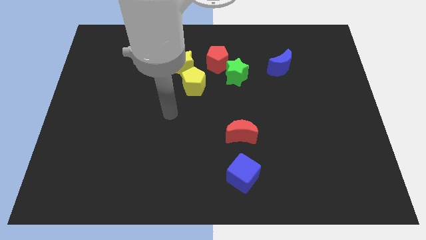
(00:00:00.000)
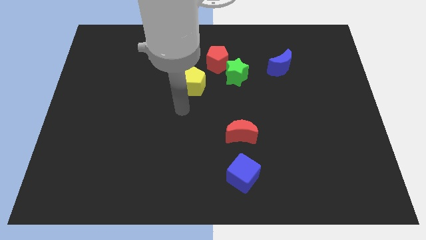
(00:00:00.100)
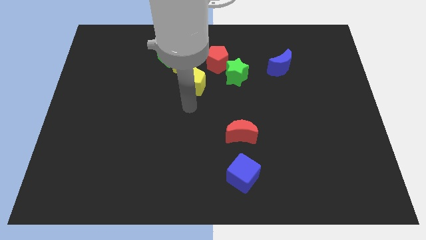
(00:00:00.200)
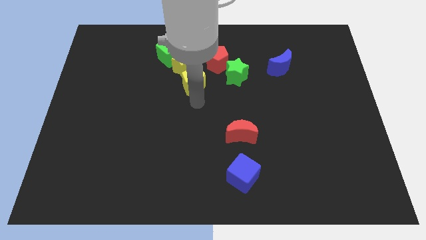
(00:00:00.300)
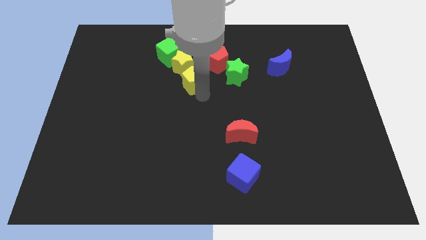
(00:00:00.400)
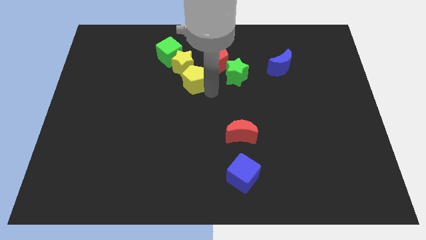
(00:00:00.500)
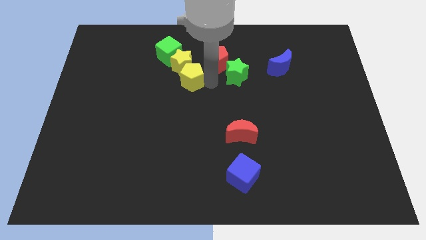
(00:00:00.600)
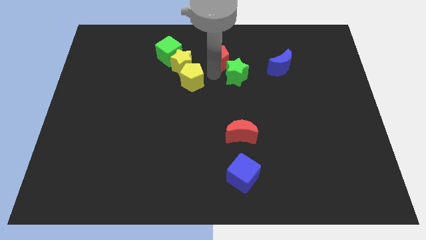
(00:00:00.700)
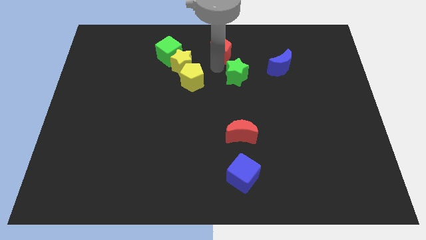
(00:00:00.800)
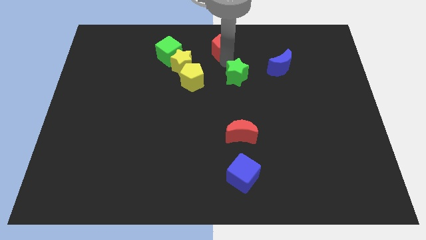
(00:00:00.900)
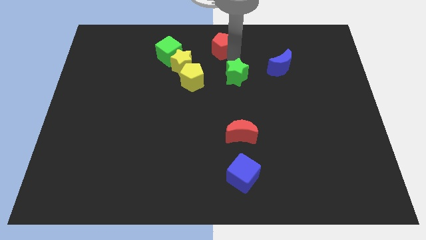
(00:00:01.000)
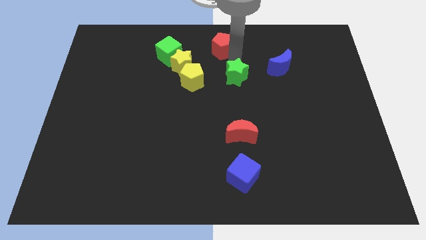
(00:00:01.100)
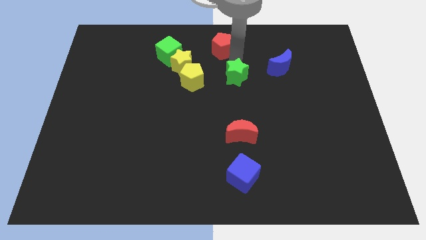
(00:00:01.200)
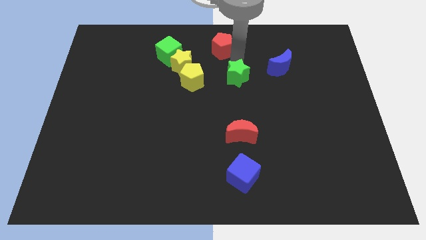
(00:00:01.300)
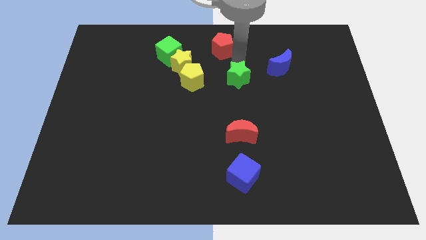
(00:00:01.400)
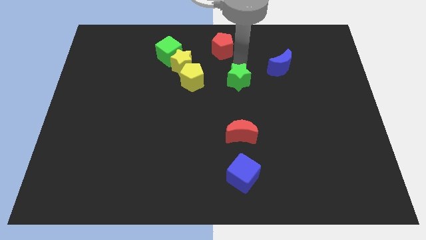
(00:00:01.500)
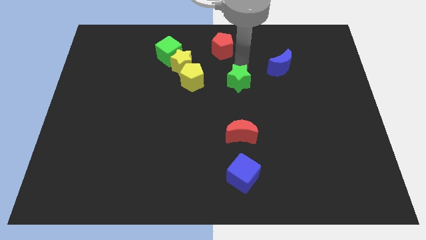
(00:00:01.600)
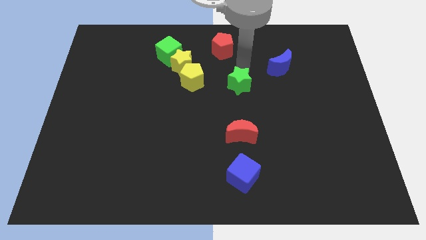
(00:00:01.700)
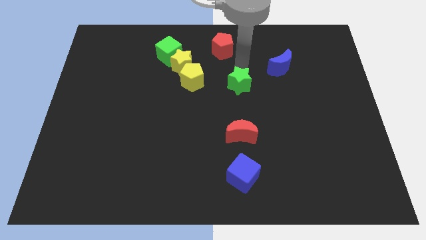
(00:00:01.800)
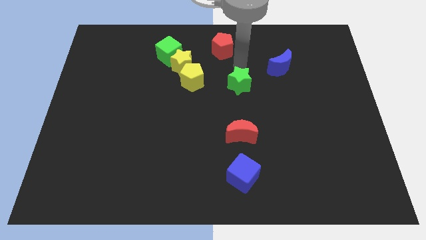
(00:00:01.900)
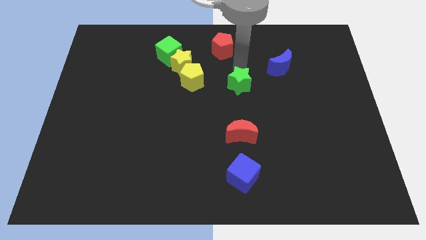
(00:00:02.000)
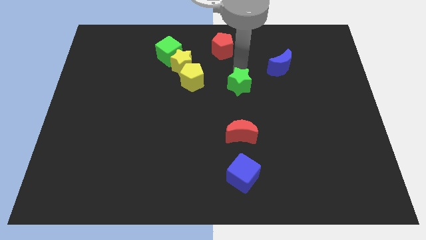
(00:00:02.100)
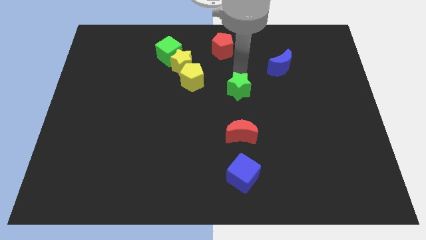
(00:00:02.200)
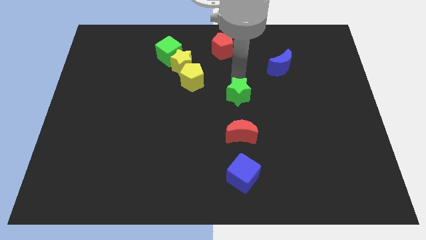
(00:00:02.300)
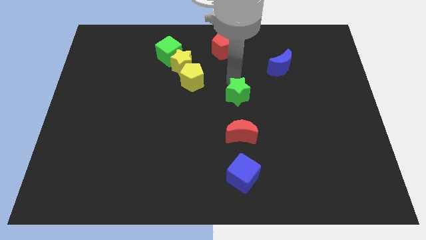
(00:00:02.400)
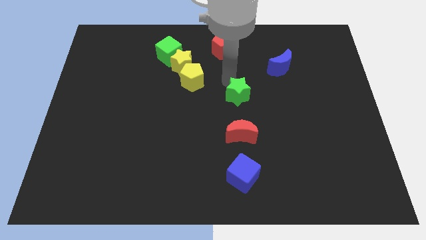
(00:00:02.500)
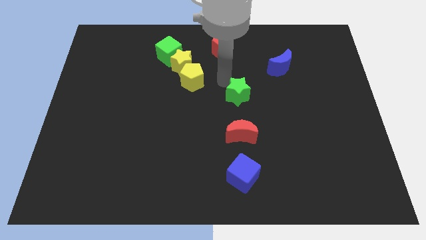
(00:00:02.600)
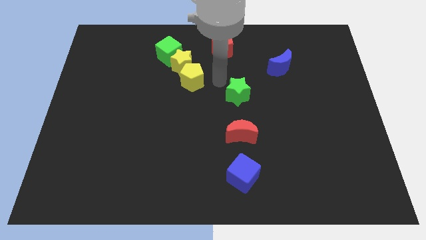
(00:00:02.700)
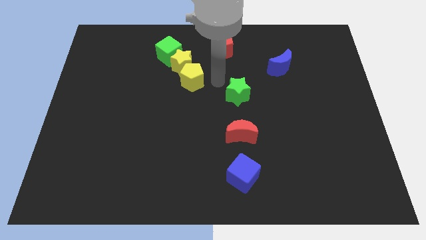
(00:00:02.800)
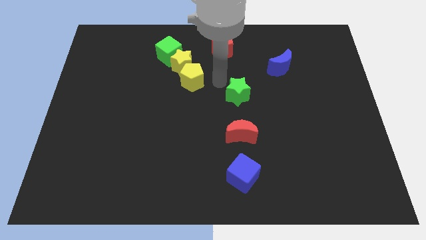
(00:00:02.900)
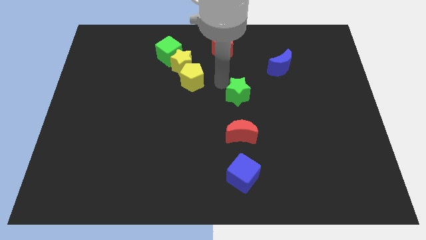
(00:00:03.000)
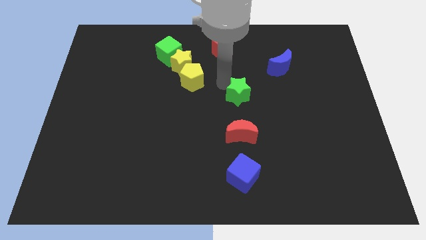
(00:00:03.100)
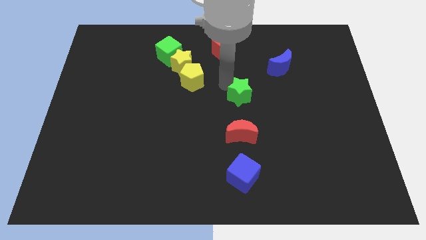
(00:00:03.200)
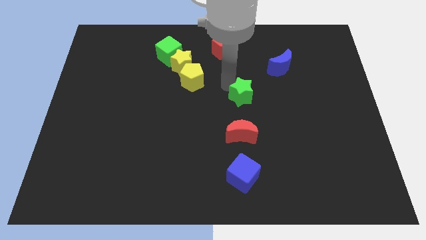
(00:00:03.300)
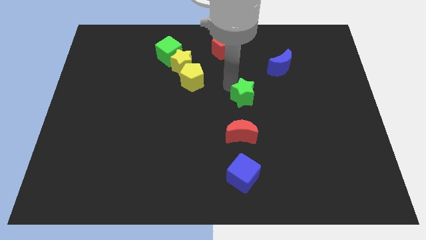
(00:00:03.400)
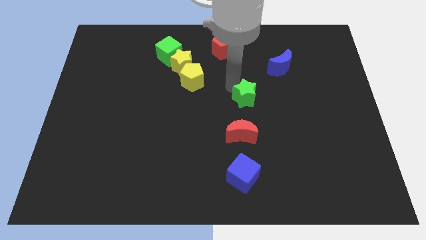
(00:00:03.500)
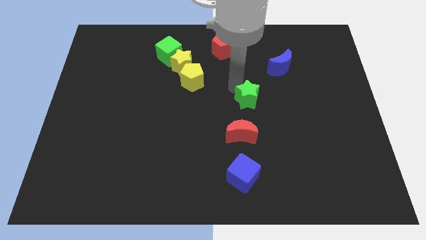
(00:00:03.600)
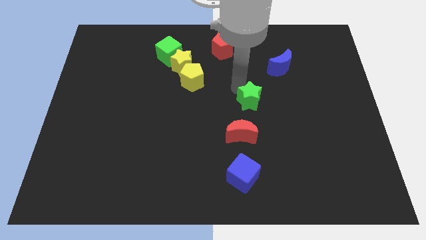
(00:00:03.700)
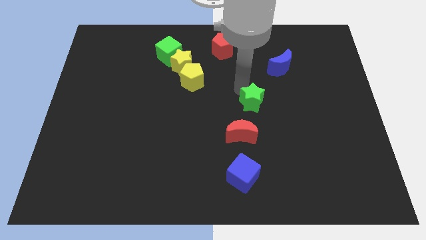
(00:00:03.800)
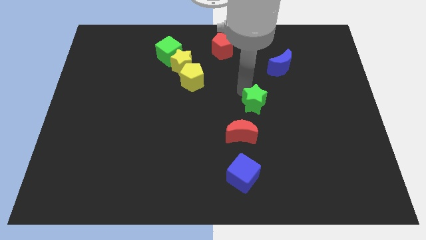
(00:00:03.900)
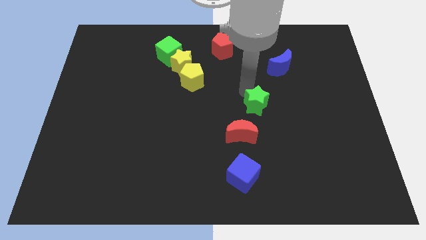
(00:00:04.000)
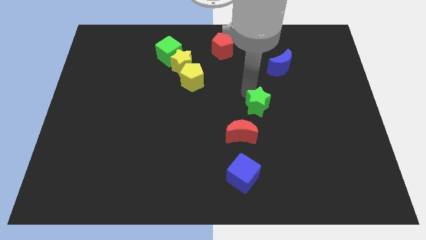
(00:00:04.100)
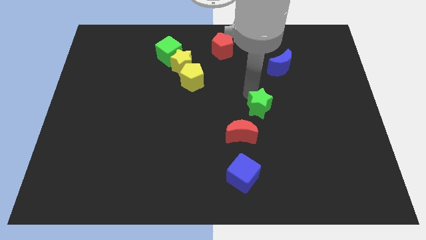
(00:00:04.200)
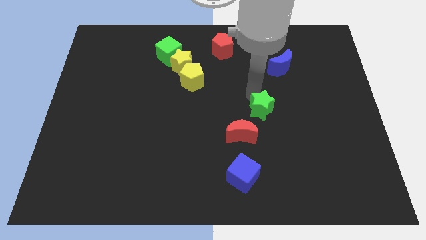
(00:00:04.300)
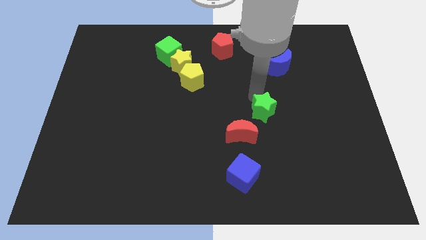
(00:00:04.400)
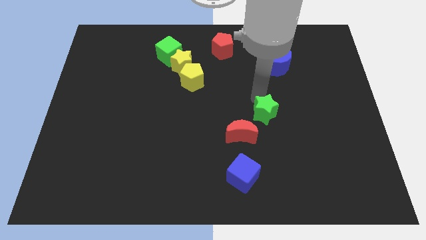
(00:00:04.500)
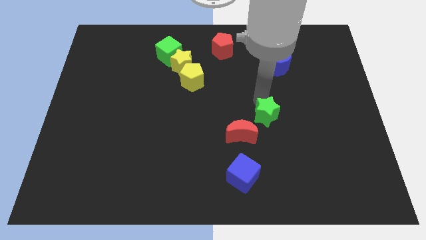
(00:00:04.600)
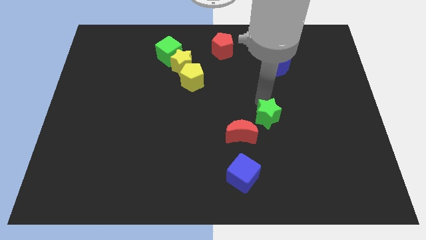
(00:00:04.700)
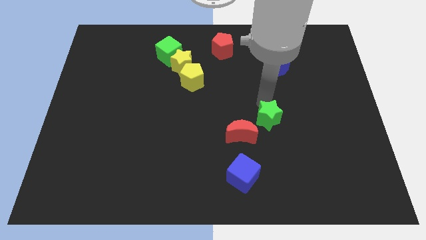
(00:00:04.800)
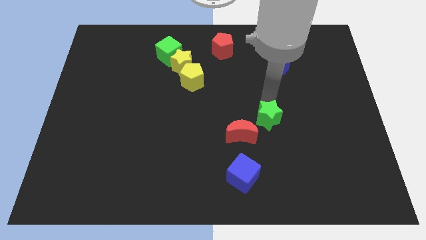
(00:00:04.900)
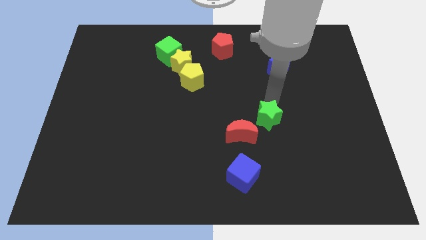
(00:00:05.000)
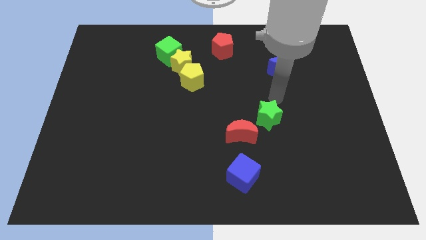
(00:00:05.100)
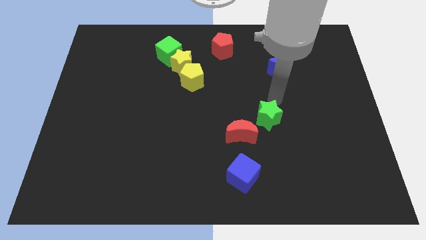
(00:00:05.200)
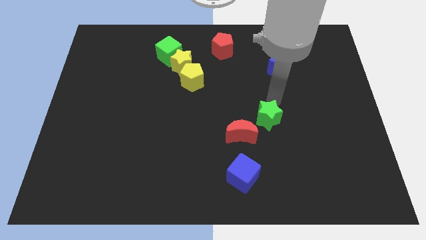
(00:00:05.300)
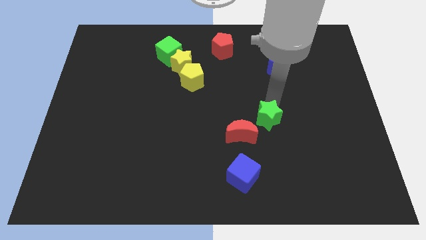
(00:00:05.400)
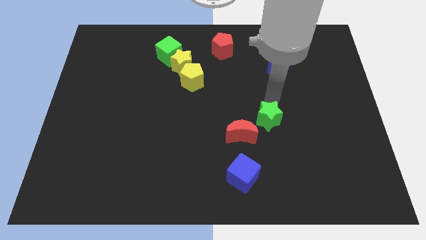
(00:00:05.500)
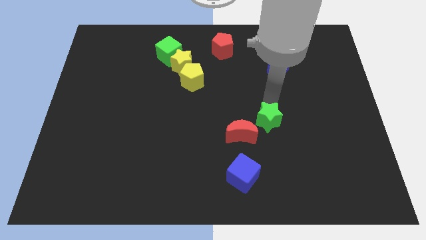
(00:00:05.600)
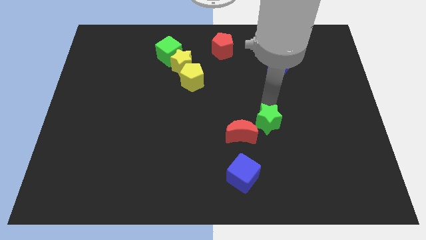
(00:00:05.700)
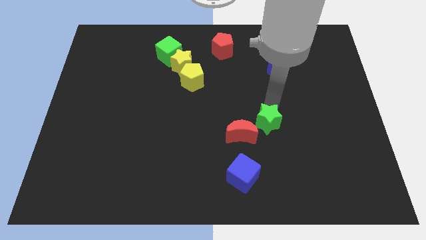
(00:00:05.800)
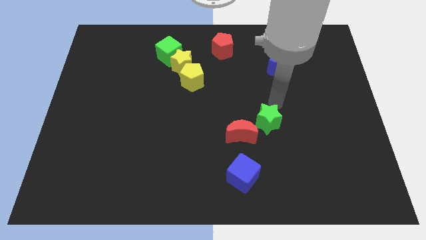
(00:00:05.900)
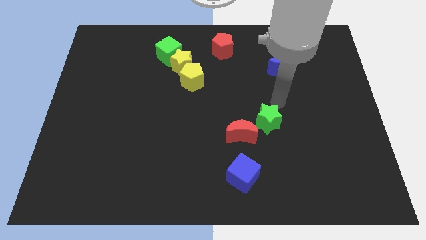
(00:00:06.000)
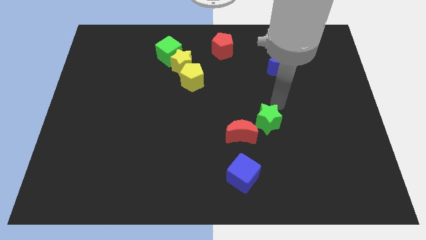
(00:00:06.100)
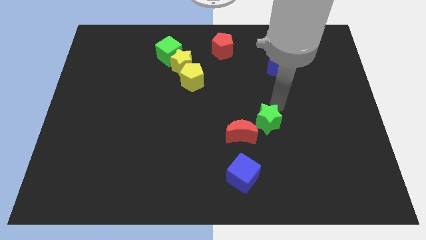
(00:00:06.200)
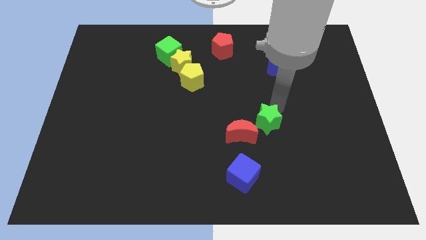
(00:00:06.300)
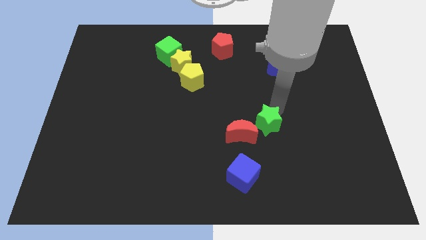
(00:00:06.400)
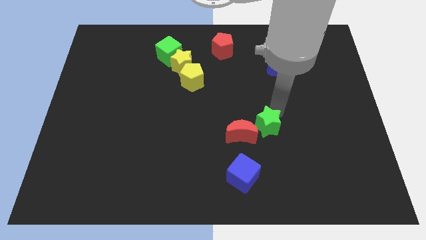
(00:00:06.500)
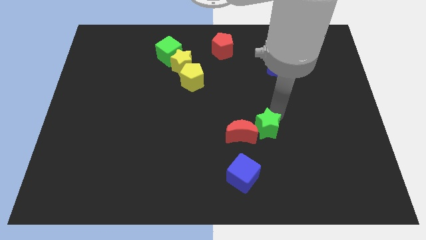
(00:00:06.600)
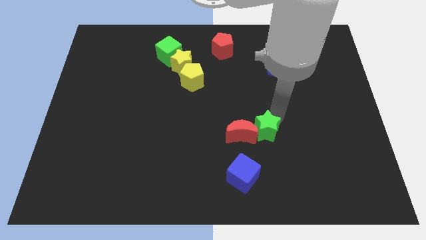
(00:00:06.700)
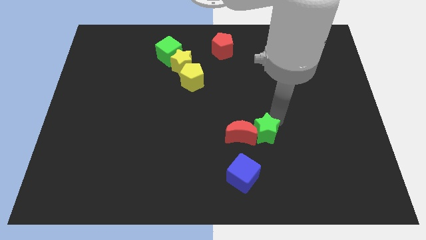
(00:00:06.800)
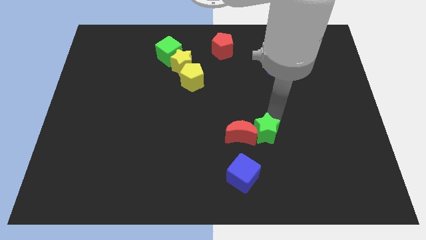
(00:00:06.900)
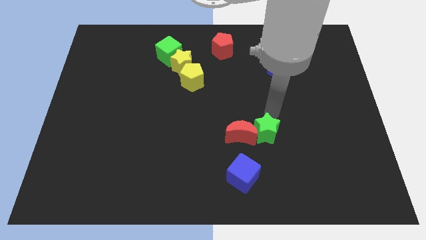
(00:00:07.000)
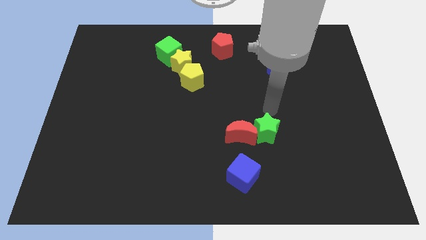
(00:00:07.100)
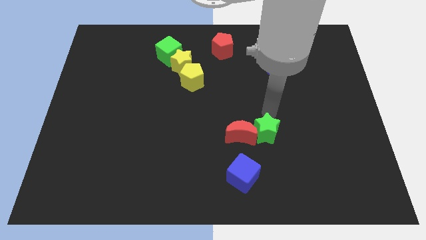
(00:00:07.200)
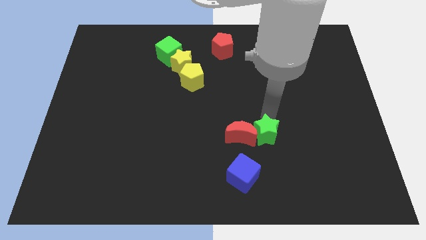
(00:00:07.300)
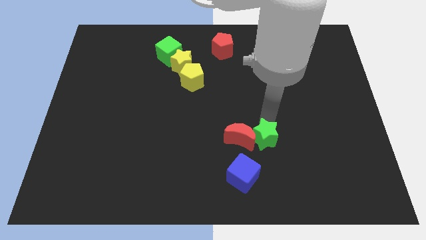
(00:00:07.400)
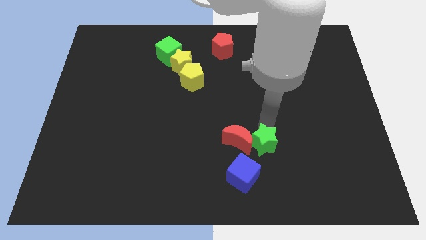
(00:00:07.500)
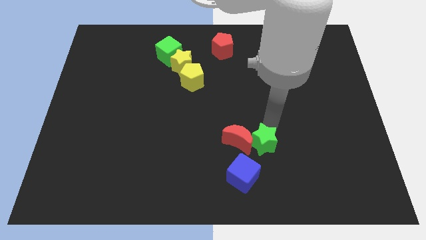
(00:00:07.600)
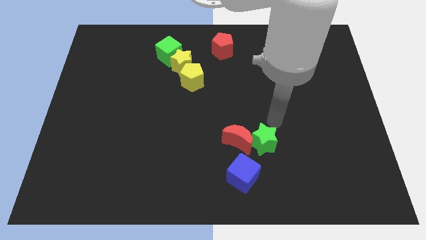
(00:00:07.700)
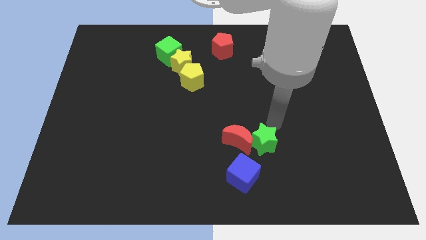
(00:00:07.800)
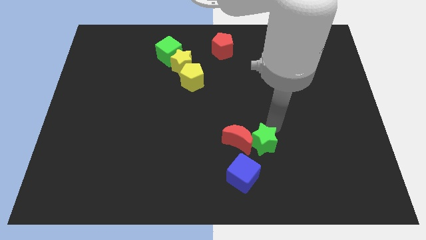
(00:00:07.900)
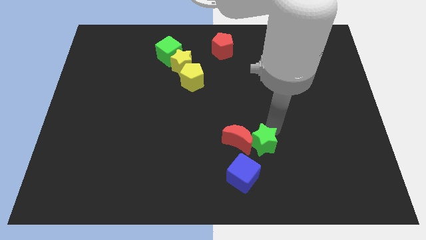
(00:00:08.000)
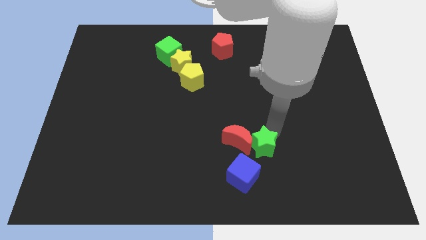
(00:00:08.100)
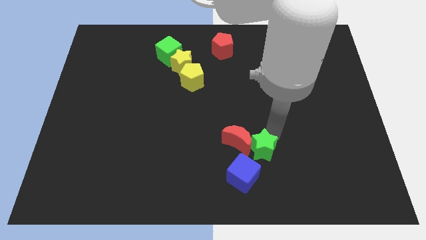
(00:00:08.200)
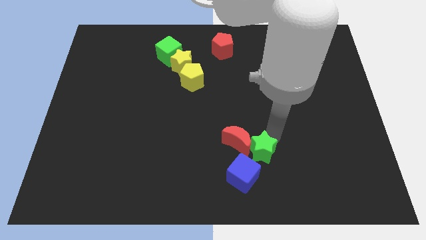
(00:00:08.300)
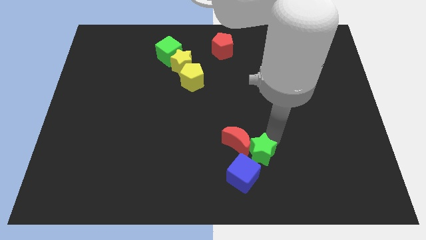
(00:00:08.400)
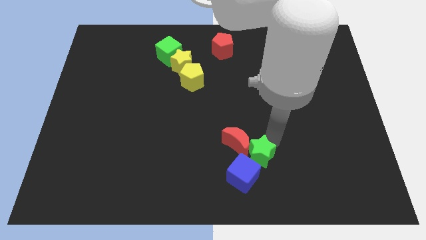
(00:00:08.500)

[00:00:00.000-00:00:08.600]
put the green star next to the blue cube
